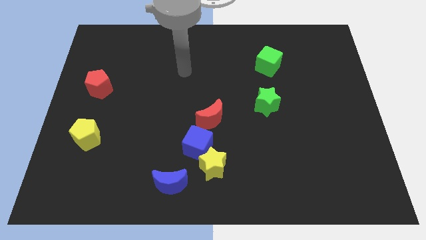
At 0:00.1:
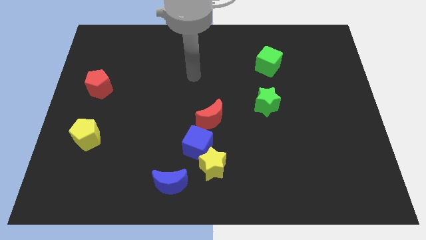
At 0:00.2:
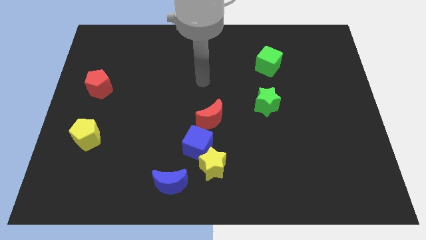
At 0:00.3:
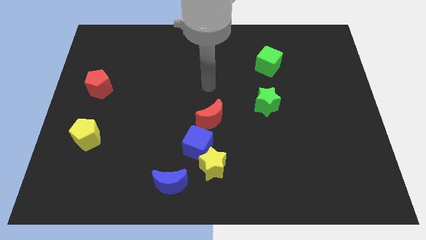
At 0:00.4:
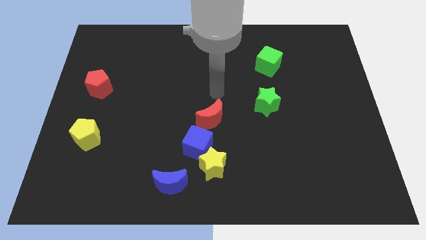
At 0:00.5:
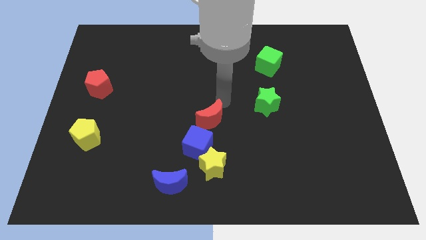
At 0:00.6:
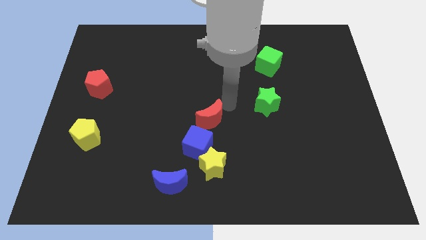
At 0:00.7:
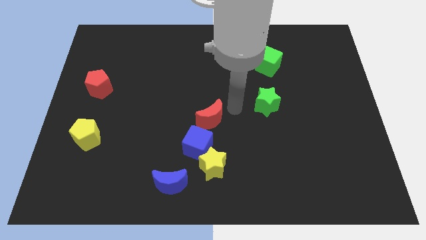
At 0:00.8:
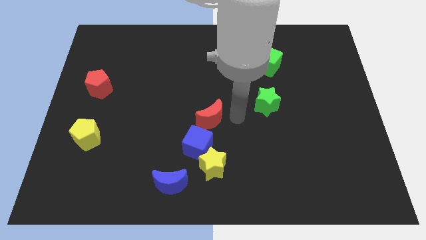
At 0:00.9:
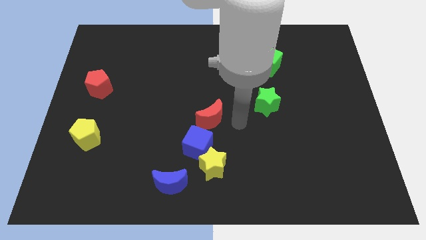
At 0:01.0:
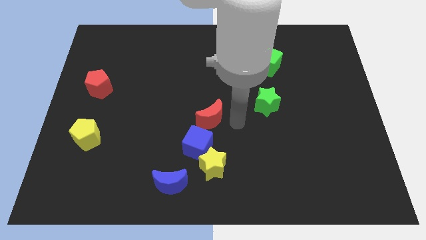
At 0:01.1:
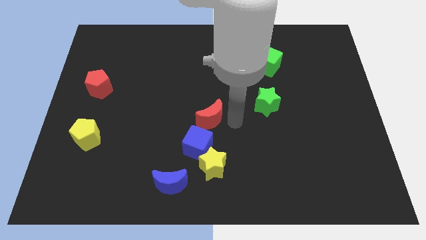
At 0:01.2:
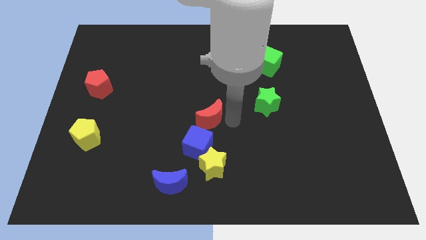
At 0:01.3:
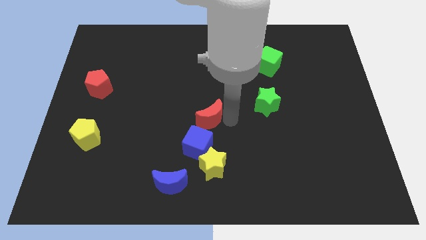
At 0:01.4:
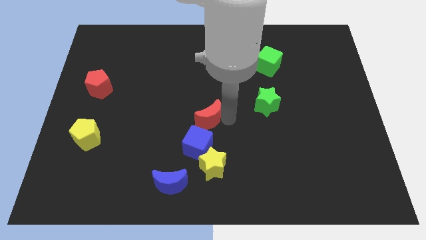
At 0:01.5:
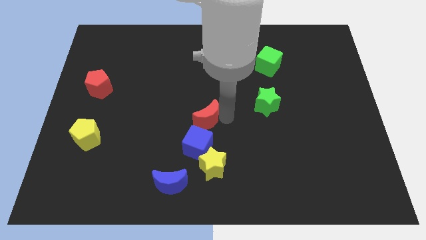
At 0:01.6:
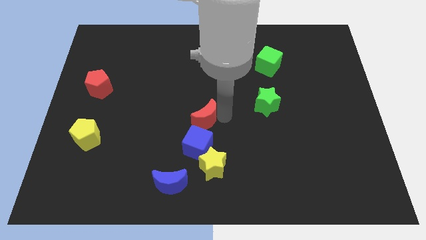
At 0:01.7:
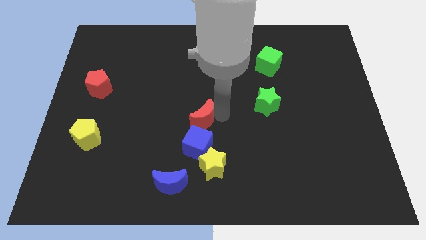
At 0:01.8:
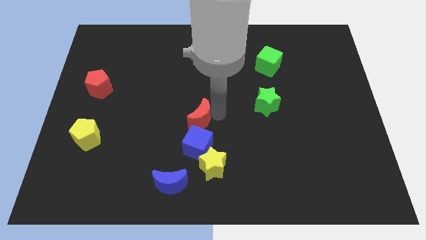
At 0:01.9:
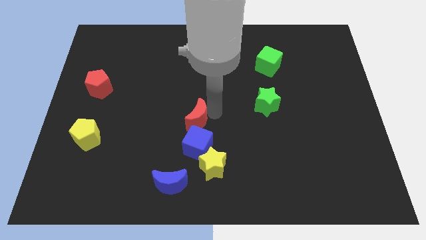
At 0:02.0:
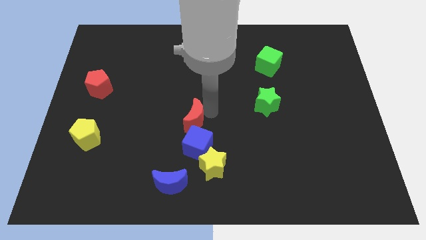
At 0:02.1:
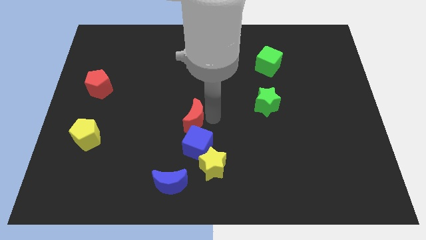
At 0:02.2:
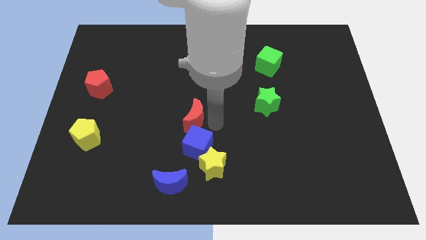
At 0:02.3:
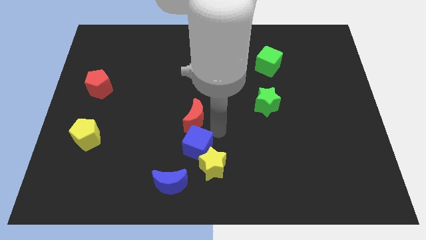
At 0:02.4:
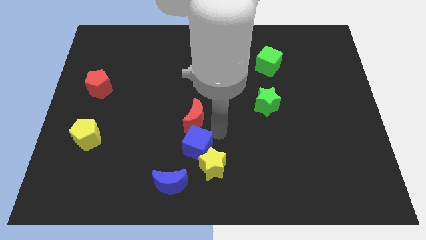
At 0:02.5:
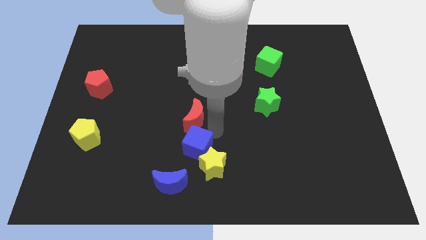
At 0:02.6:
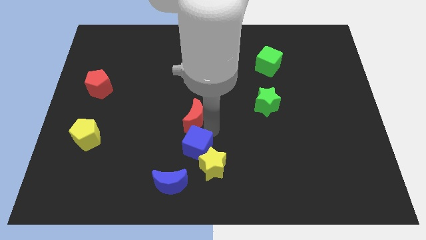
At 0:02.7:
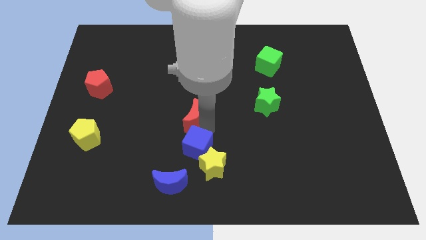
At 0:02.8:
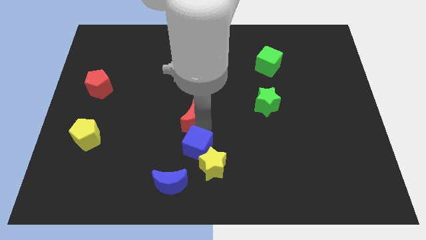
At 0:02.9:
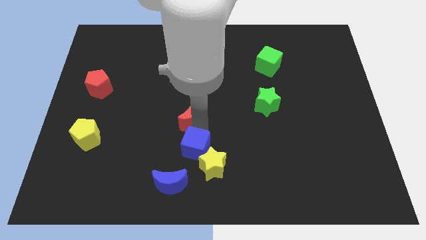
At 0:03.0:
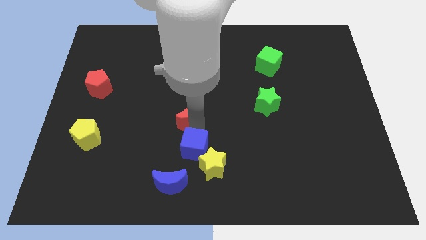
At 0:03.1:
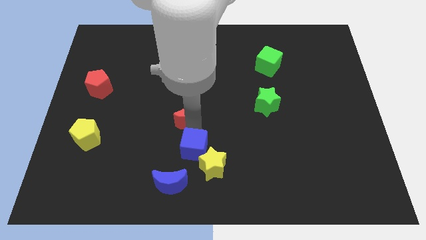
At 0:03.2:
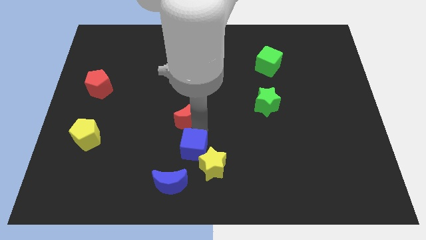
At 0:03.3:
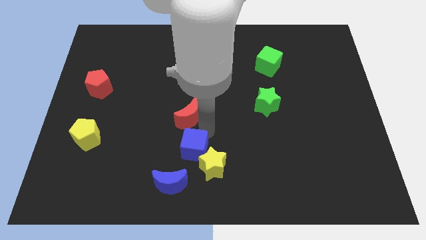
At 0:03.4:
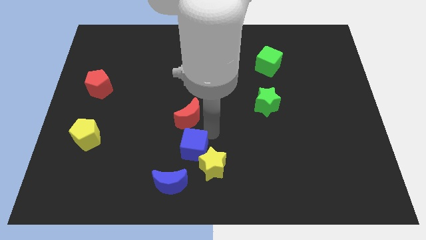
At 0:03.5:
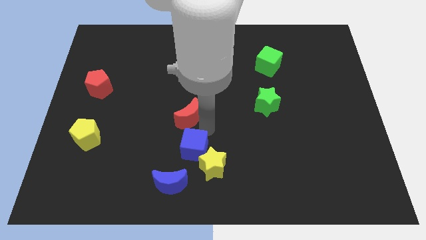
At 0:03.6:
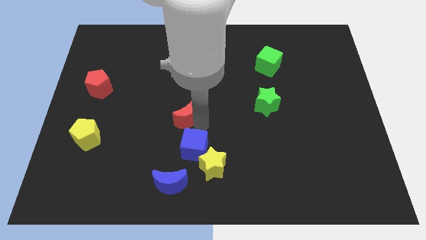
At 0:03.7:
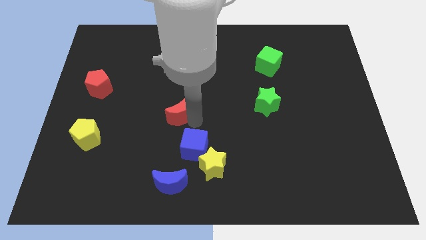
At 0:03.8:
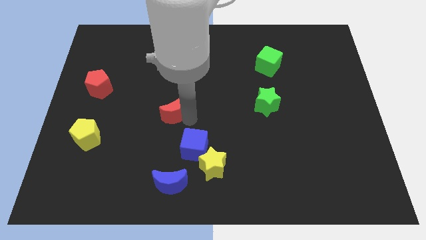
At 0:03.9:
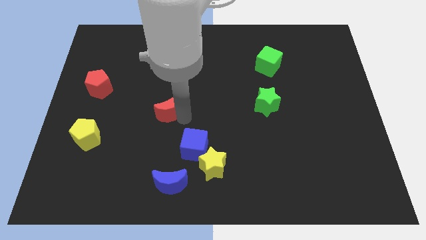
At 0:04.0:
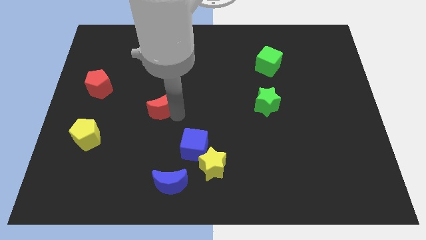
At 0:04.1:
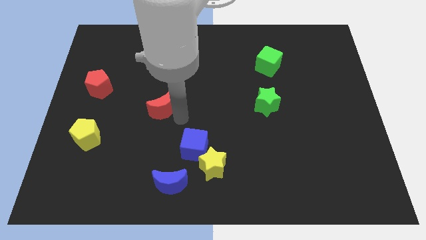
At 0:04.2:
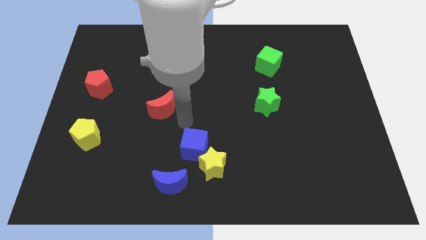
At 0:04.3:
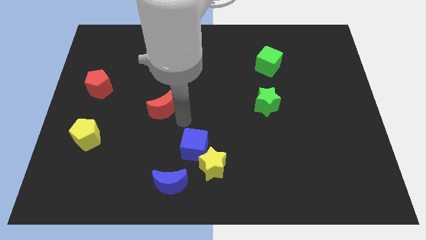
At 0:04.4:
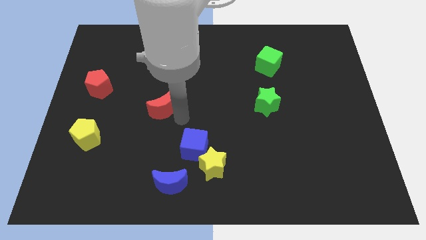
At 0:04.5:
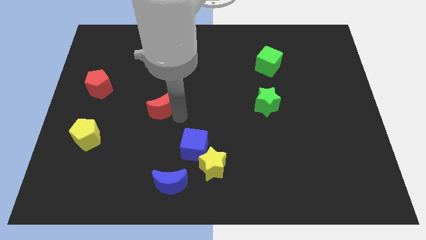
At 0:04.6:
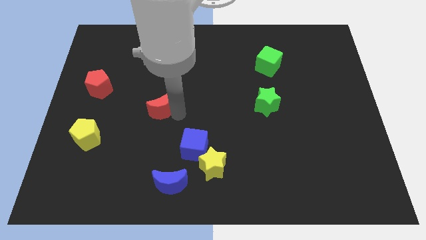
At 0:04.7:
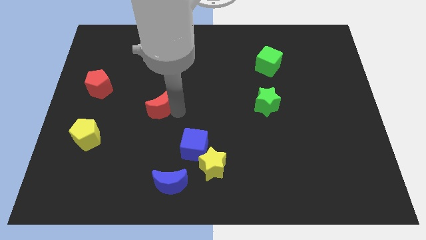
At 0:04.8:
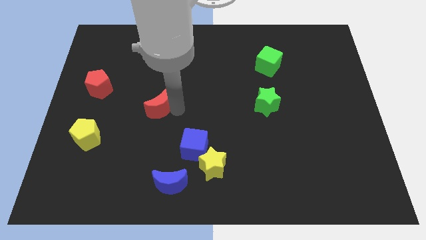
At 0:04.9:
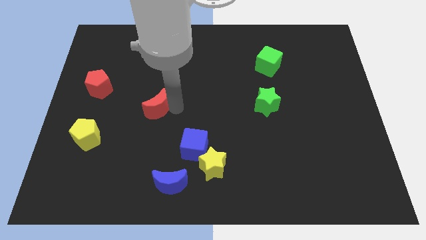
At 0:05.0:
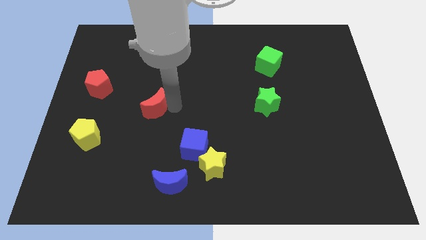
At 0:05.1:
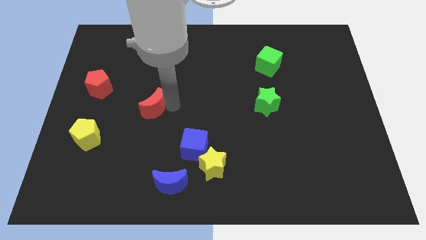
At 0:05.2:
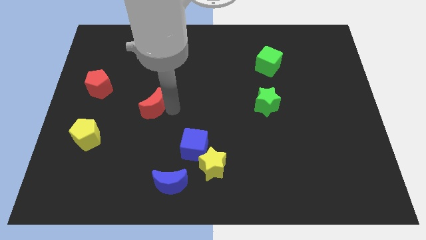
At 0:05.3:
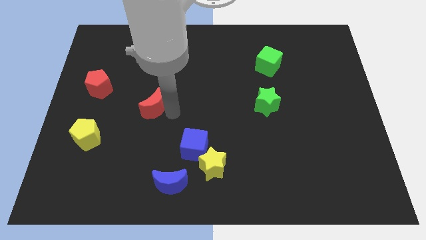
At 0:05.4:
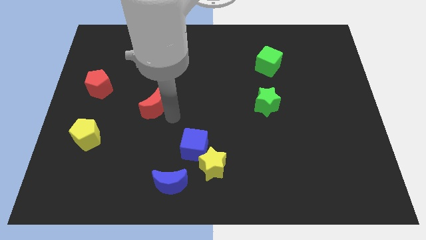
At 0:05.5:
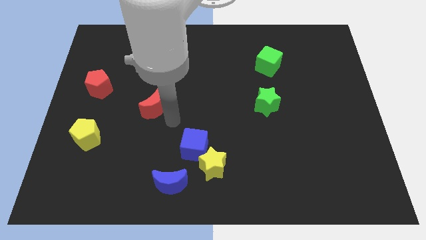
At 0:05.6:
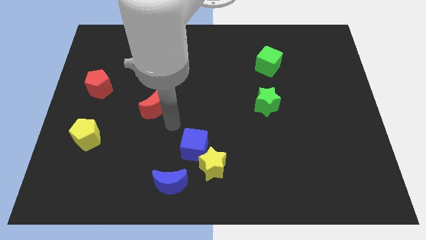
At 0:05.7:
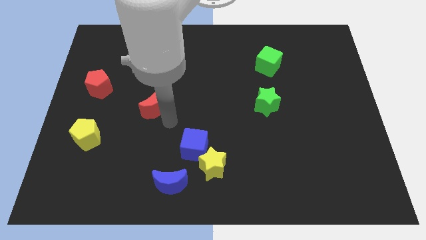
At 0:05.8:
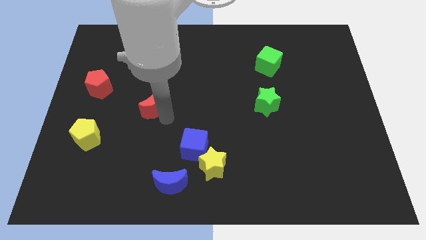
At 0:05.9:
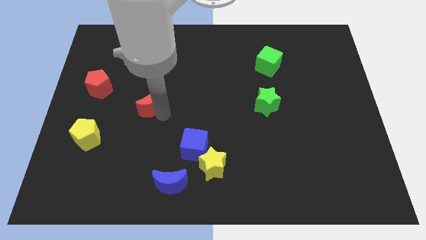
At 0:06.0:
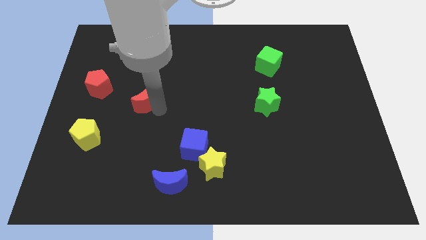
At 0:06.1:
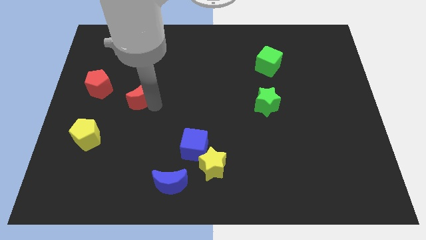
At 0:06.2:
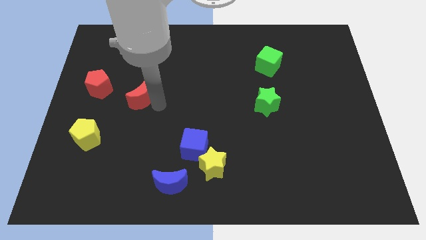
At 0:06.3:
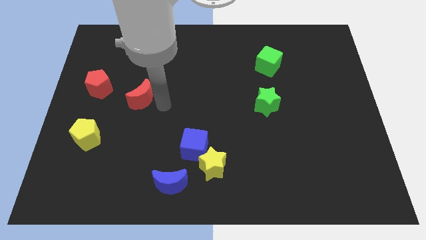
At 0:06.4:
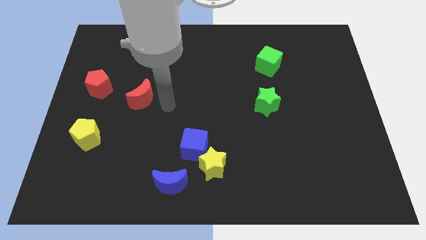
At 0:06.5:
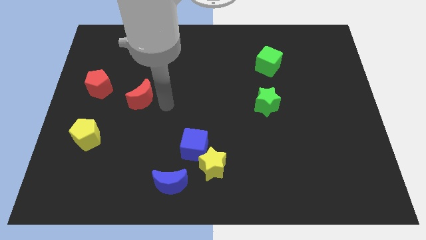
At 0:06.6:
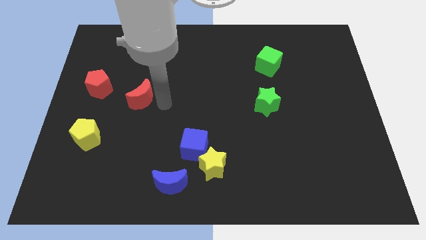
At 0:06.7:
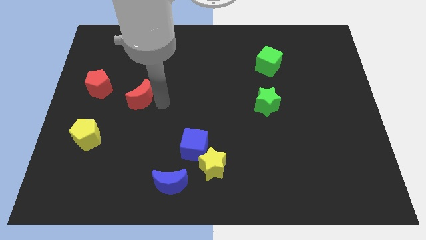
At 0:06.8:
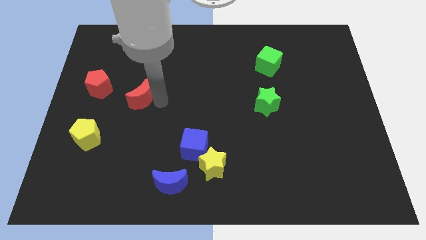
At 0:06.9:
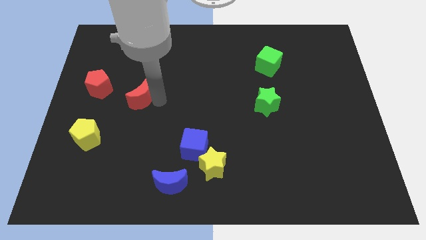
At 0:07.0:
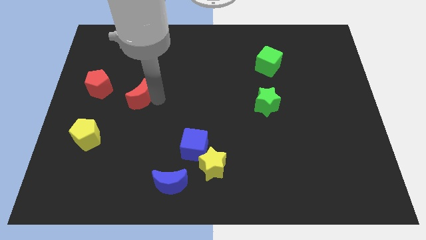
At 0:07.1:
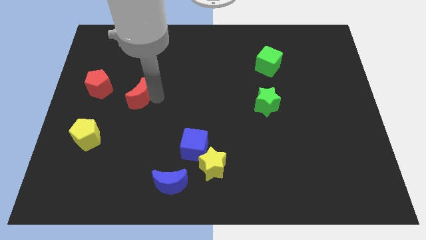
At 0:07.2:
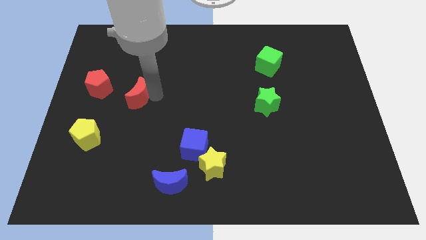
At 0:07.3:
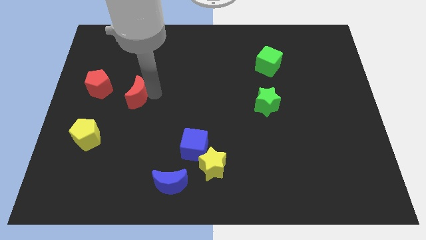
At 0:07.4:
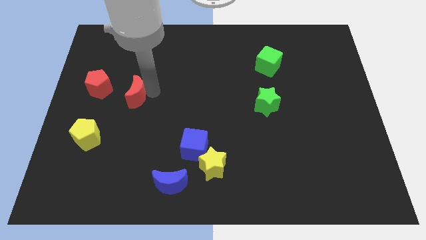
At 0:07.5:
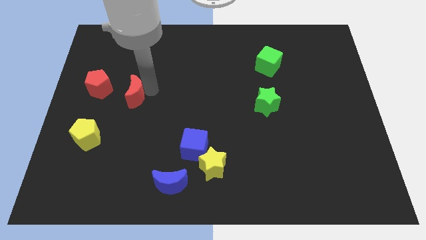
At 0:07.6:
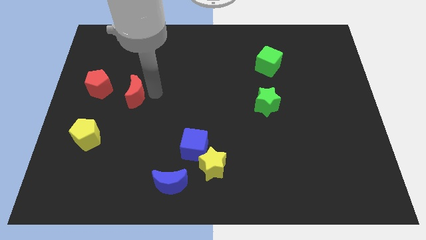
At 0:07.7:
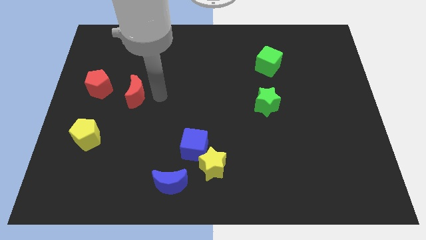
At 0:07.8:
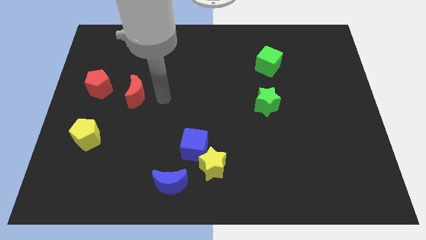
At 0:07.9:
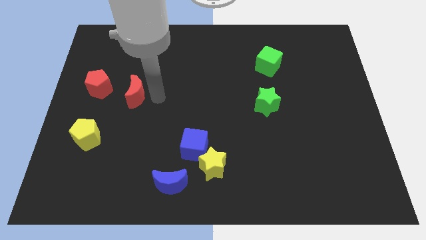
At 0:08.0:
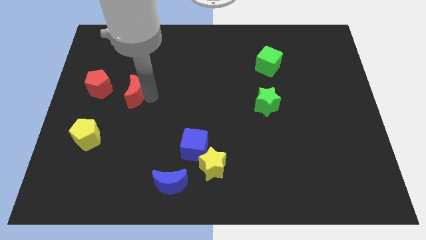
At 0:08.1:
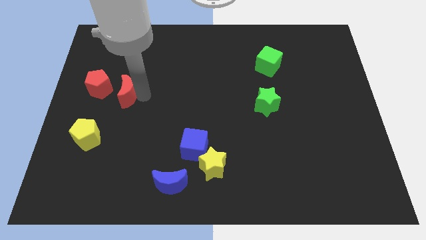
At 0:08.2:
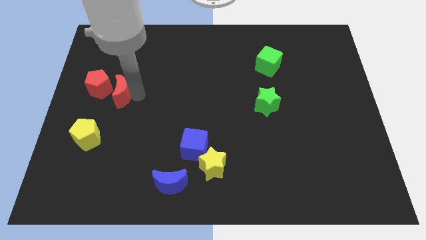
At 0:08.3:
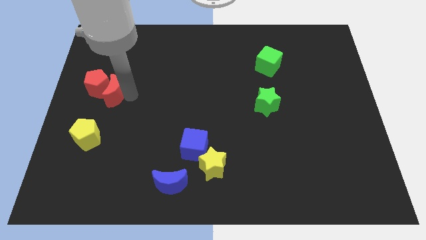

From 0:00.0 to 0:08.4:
slide the red moon next to the red pentagon
